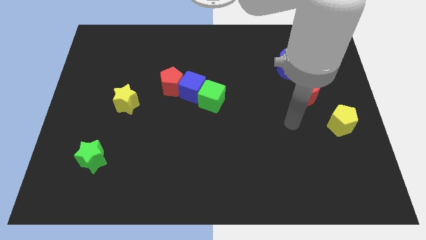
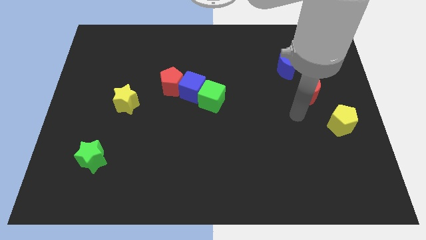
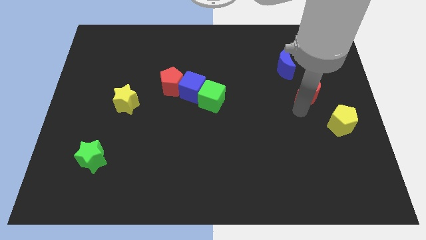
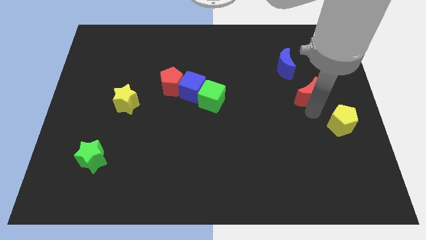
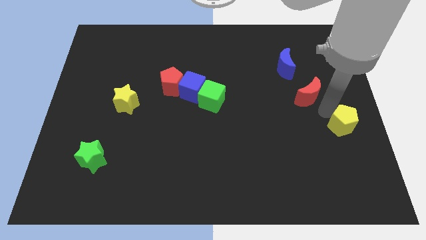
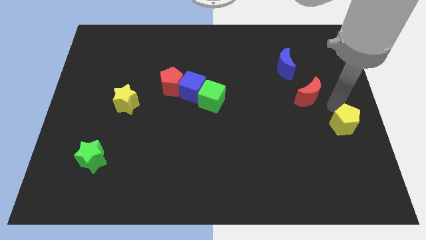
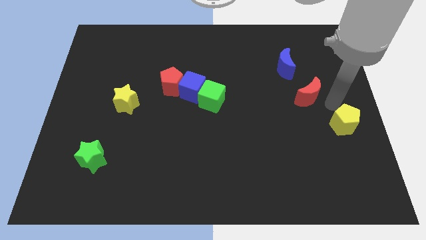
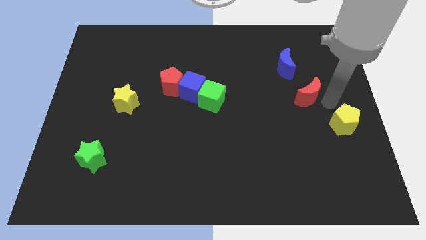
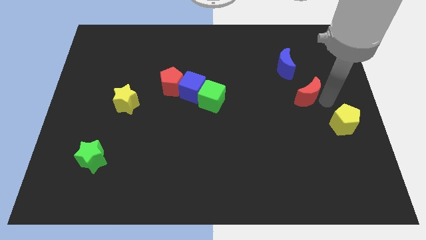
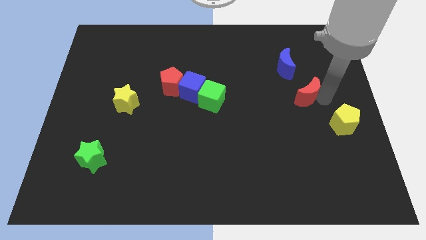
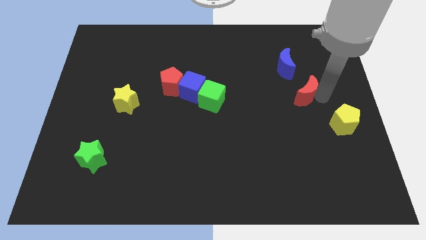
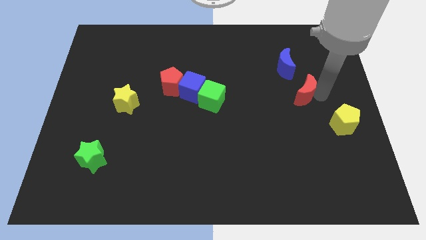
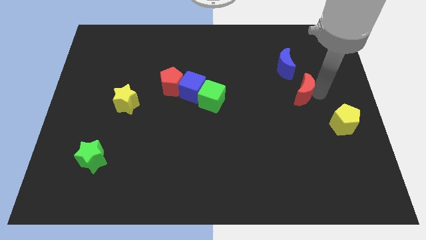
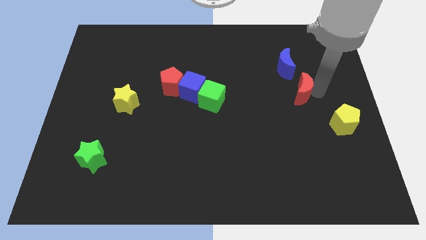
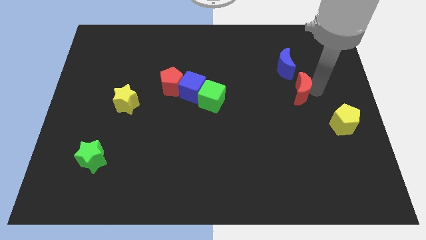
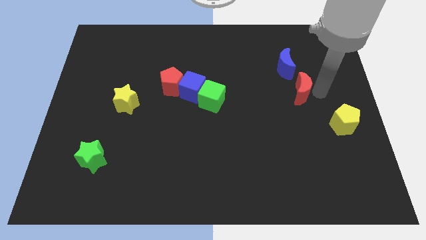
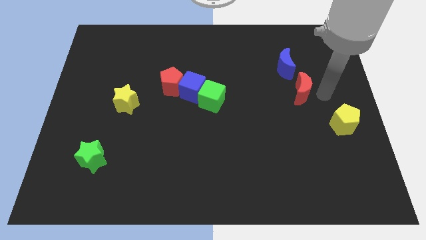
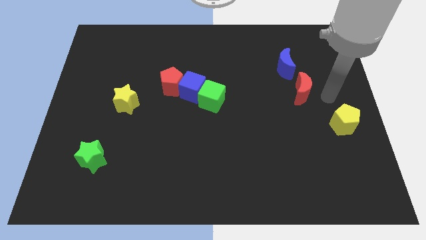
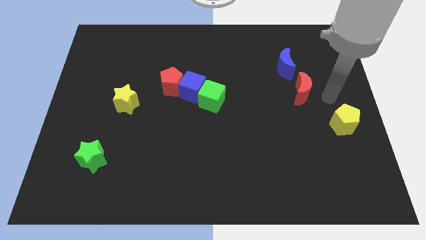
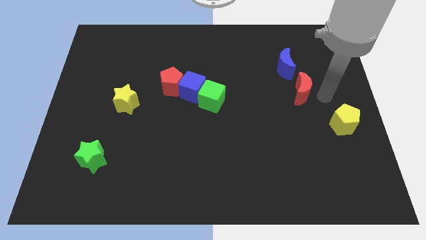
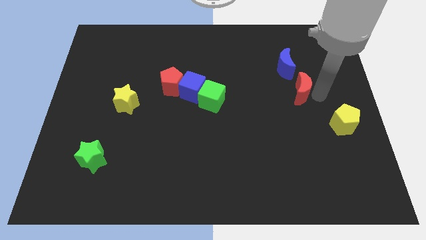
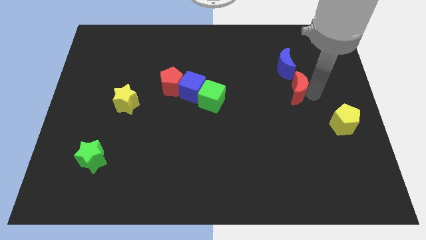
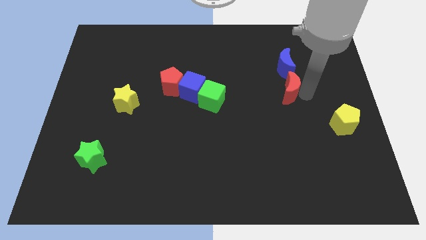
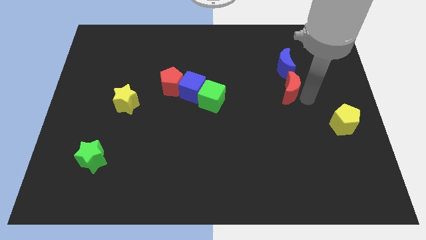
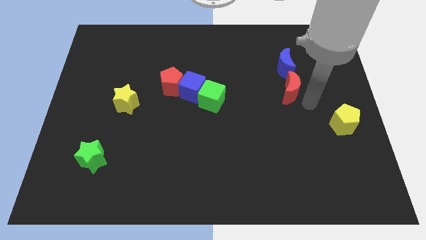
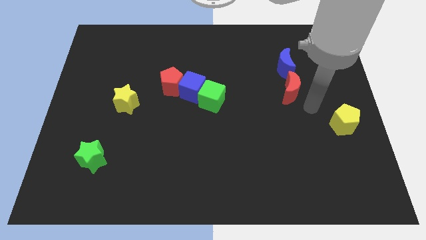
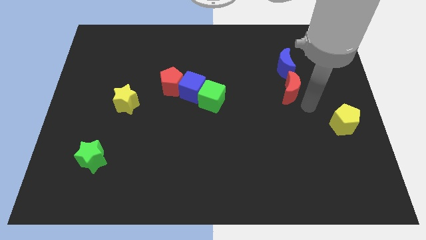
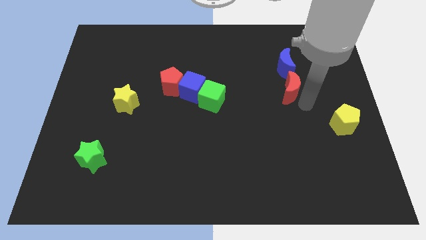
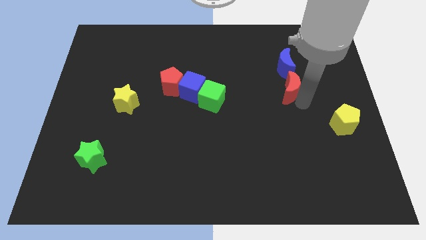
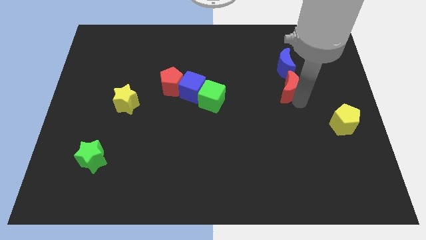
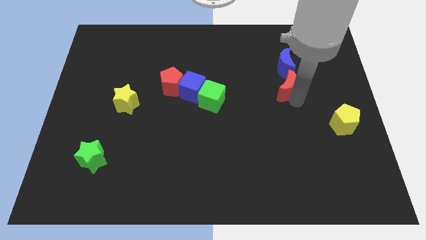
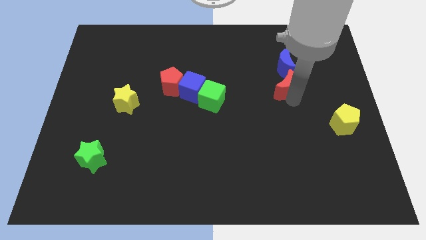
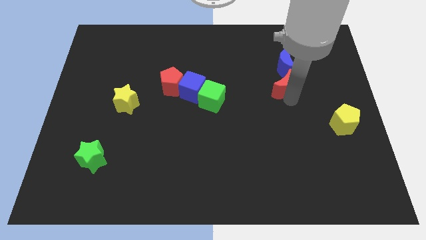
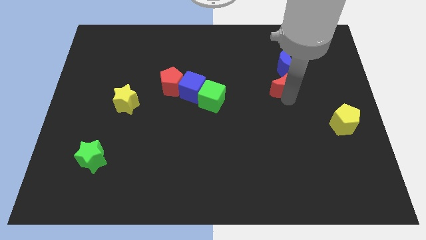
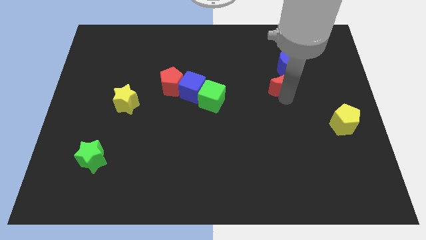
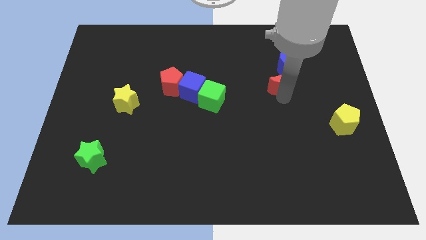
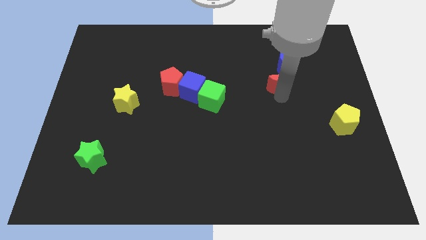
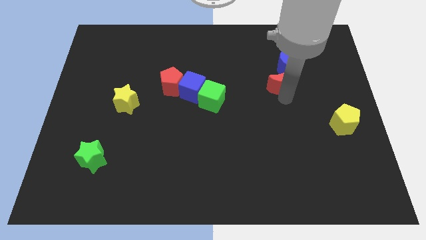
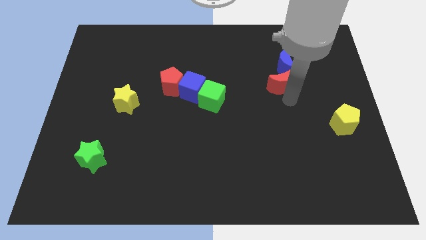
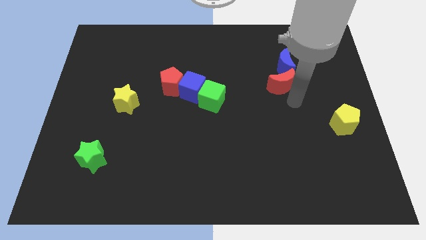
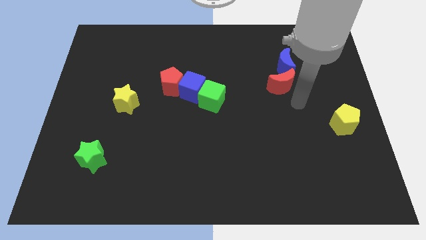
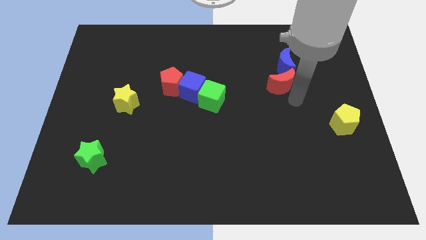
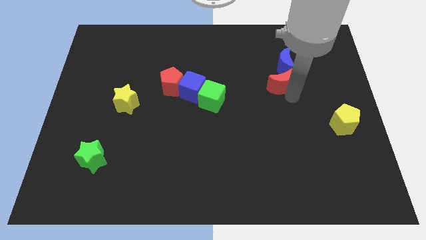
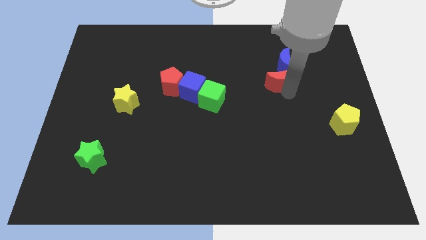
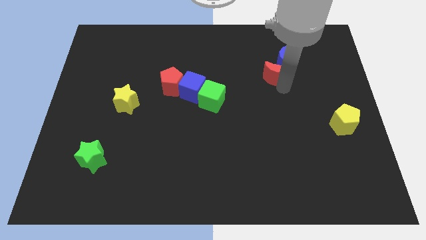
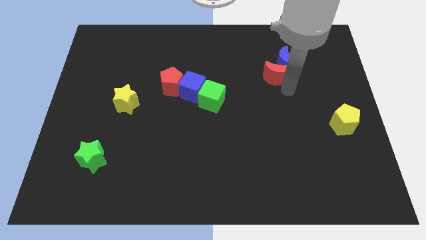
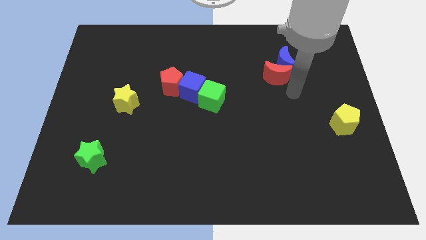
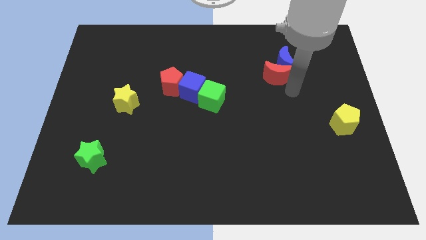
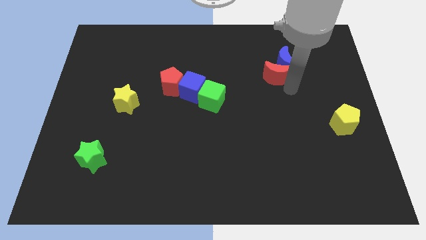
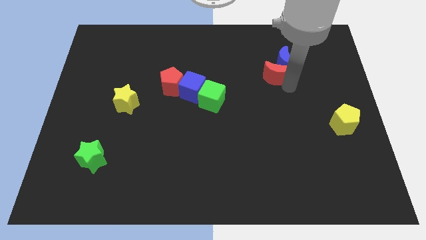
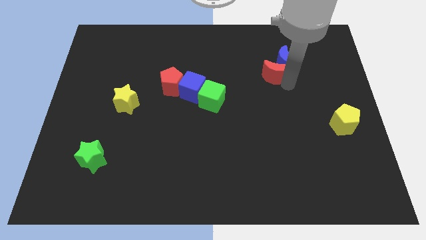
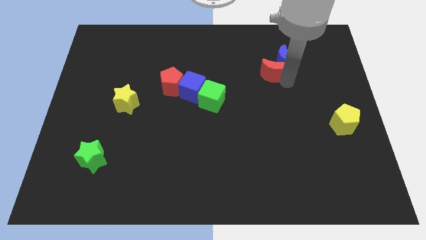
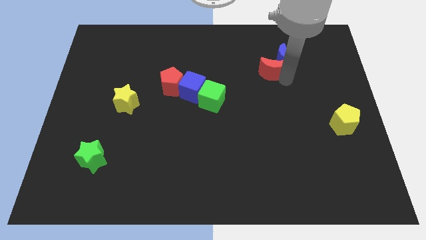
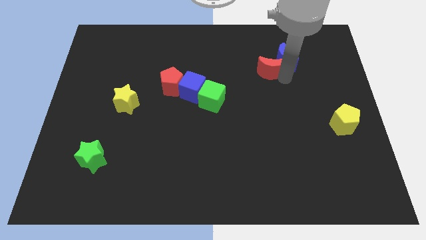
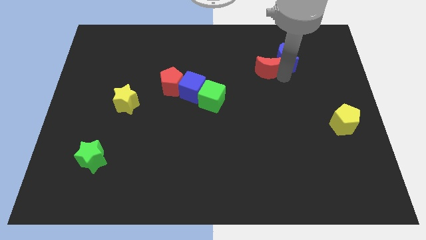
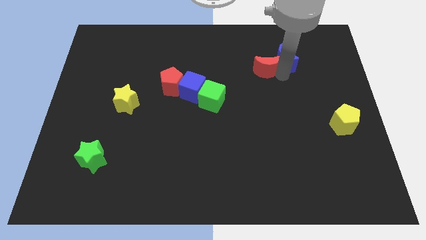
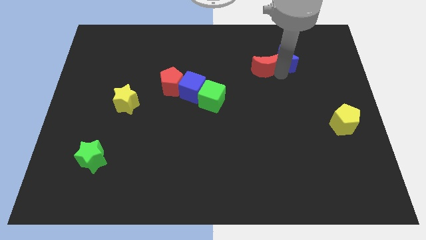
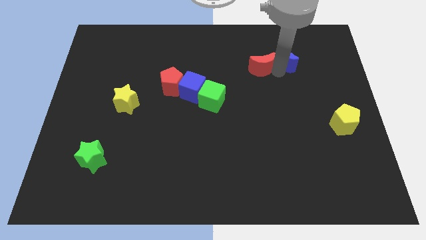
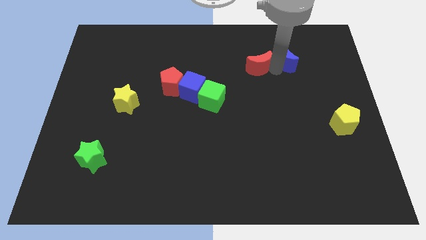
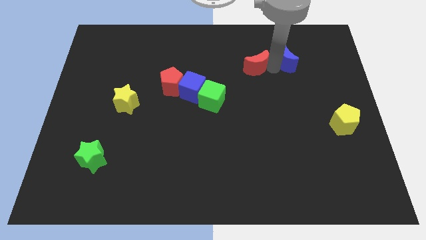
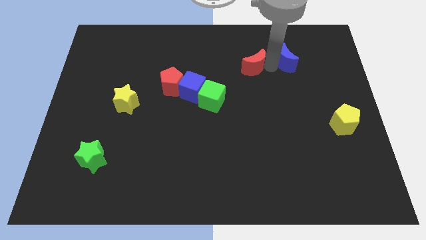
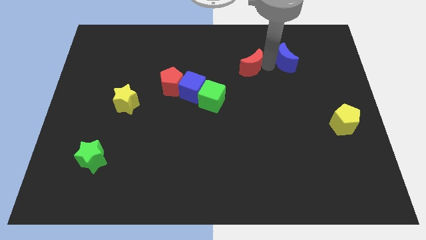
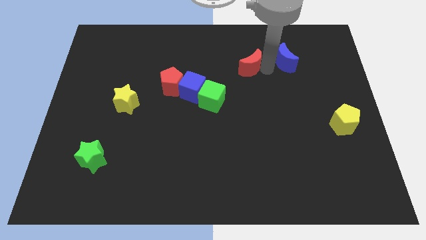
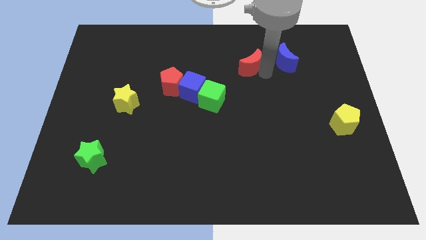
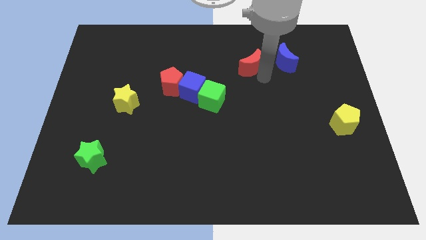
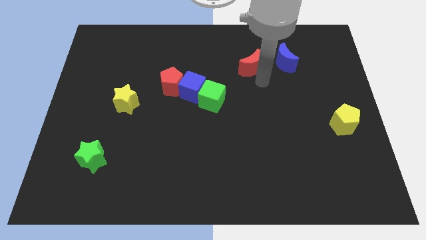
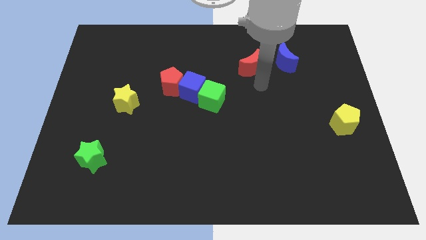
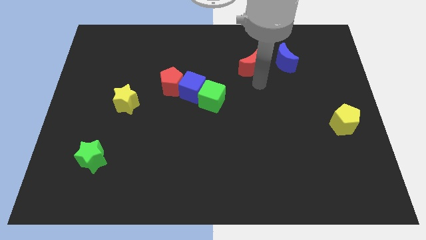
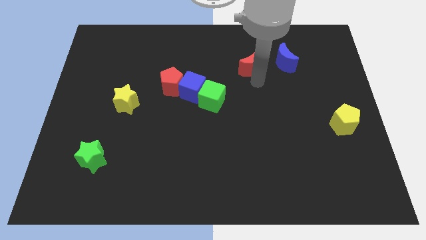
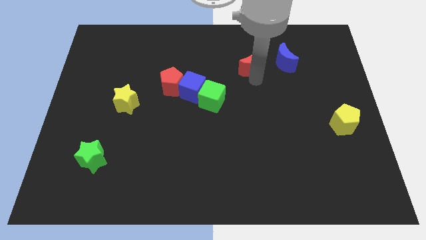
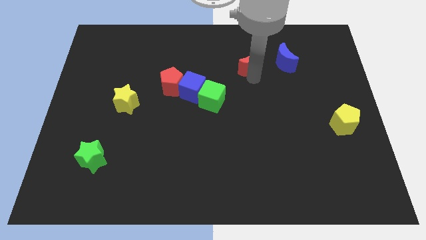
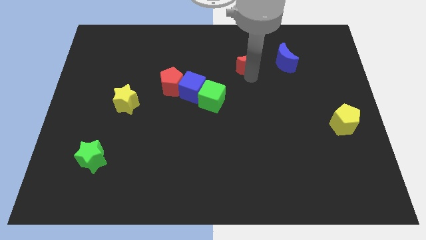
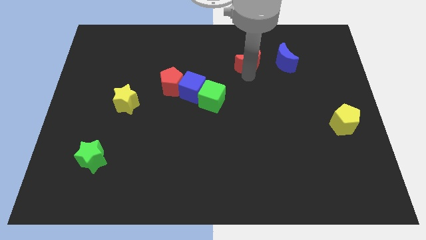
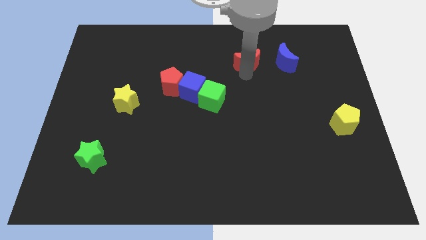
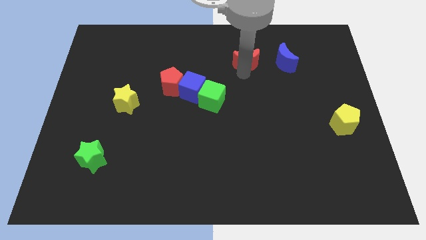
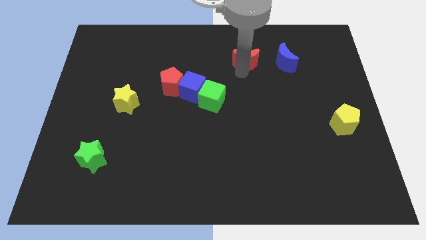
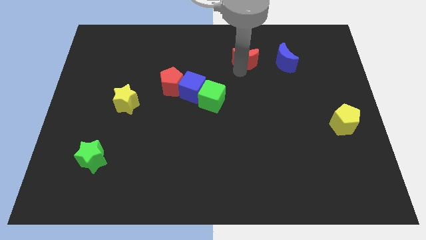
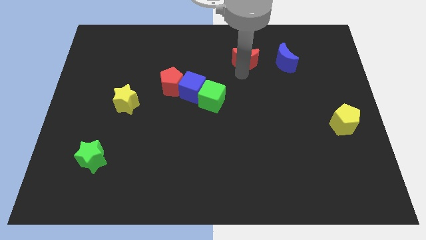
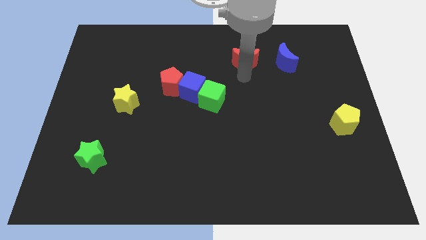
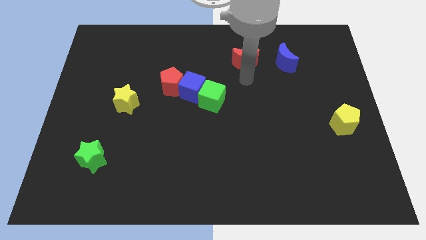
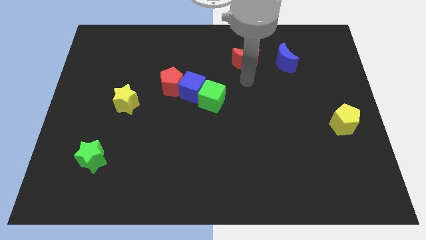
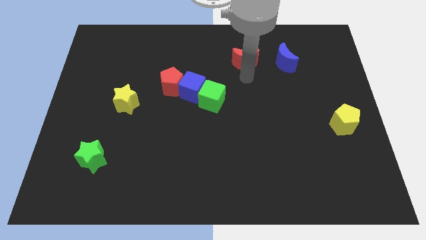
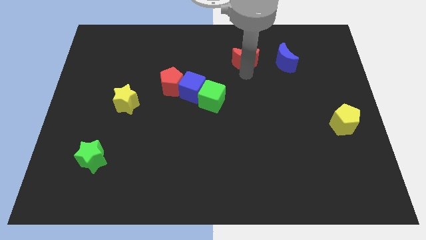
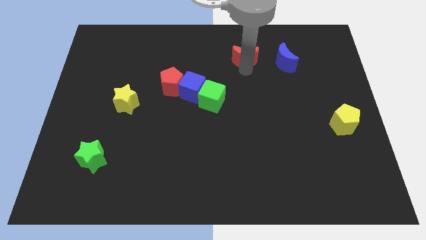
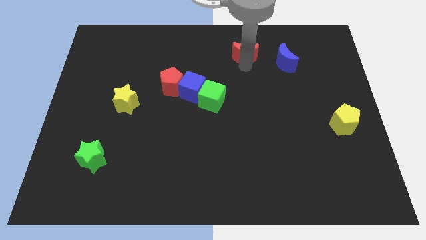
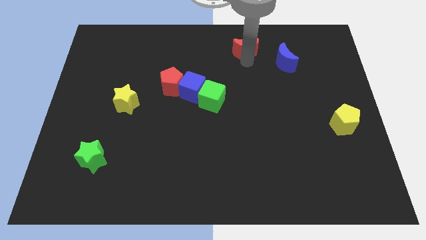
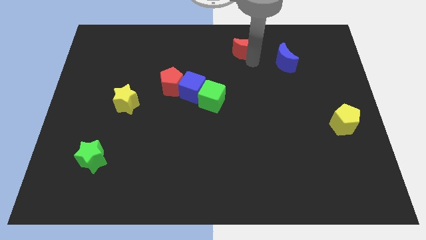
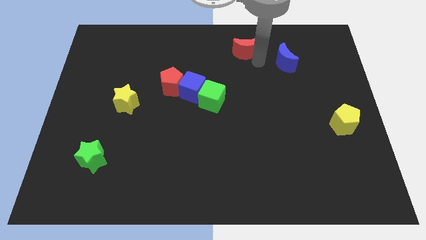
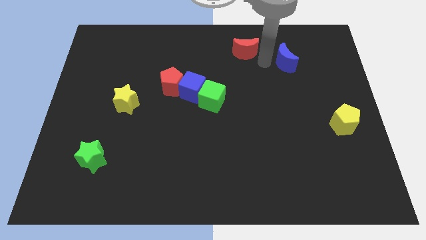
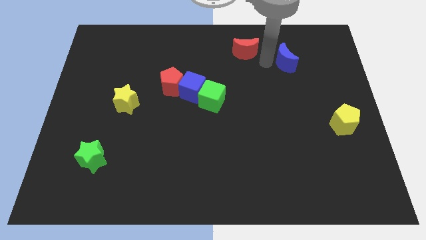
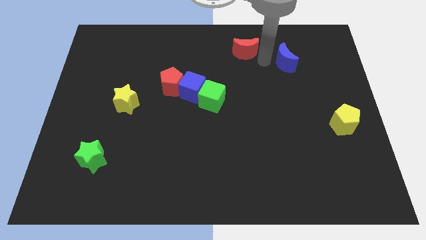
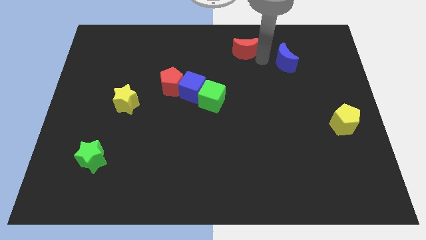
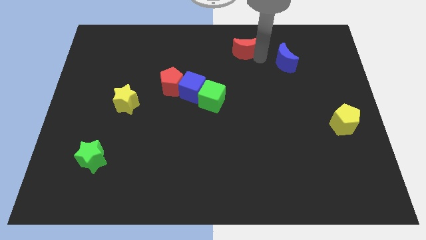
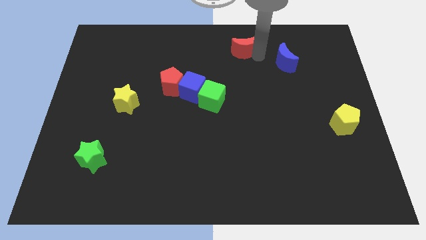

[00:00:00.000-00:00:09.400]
slide the red moon to the top side
